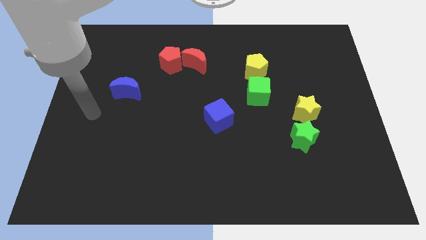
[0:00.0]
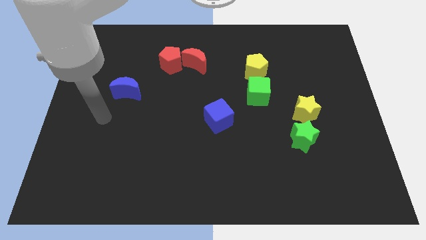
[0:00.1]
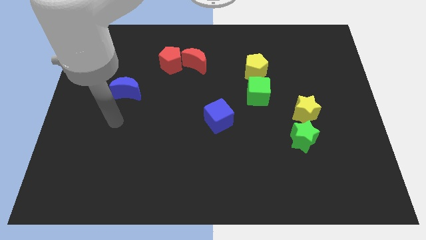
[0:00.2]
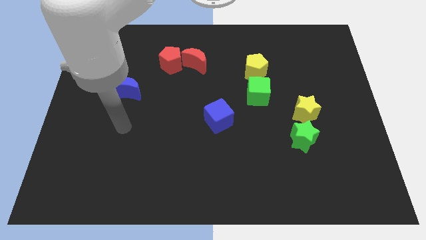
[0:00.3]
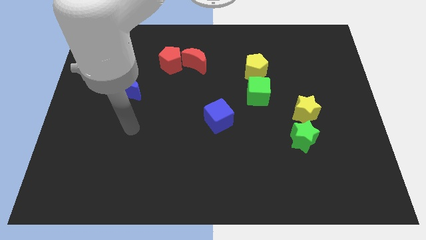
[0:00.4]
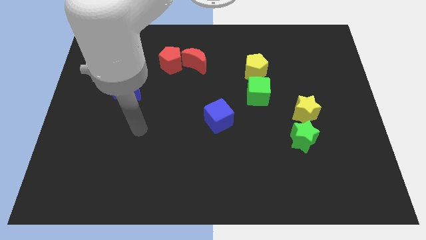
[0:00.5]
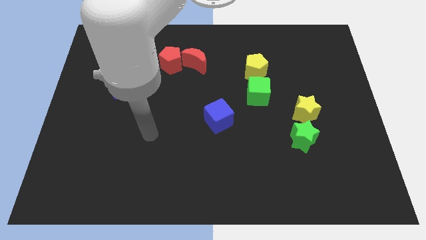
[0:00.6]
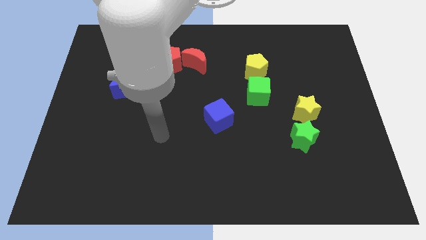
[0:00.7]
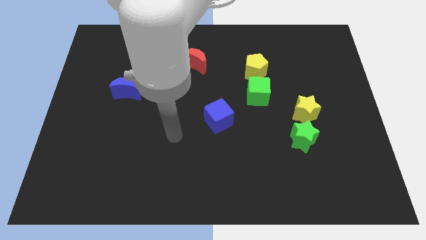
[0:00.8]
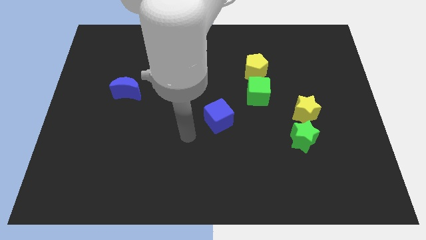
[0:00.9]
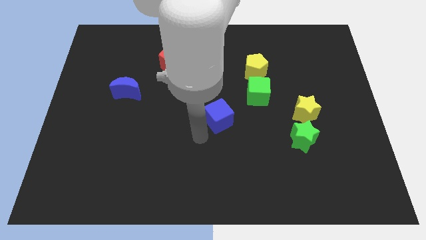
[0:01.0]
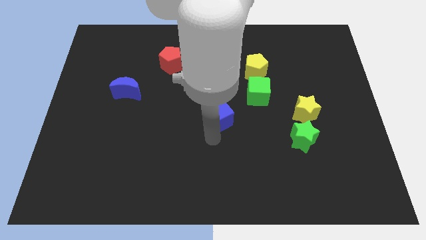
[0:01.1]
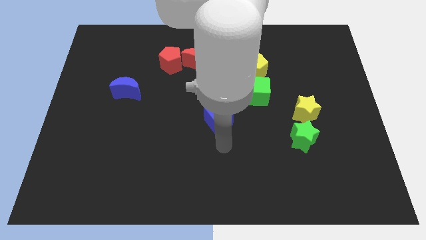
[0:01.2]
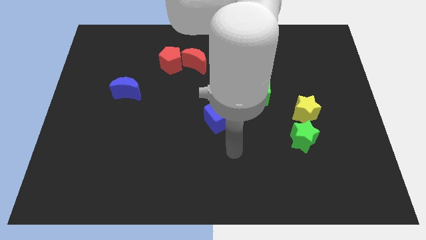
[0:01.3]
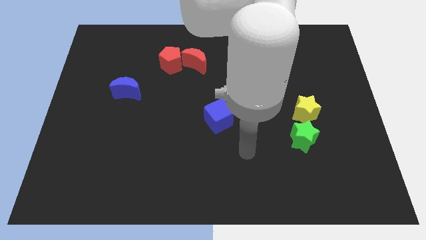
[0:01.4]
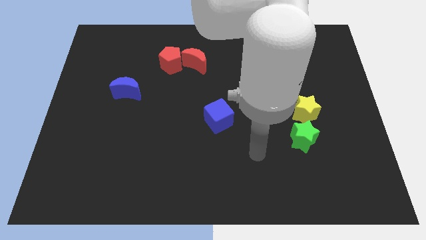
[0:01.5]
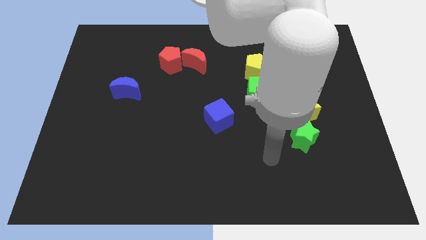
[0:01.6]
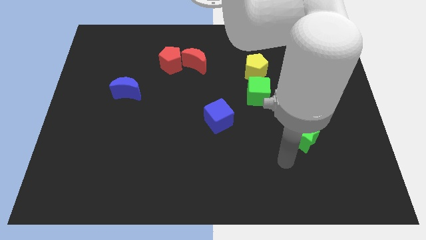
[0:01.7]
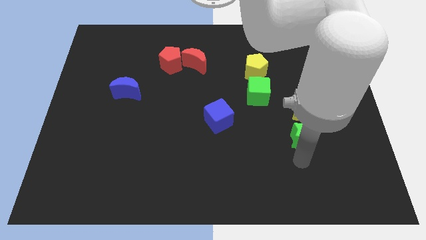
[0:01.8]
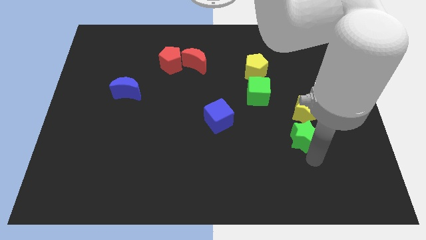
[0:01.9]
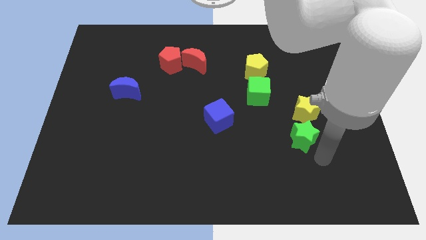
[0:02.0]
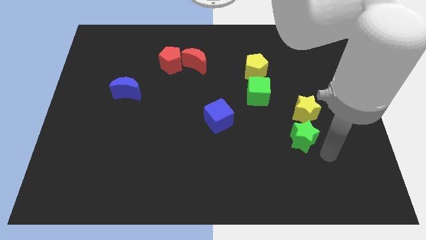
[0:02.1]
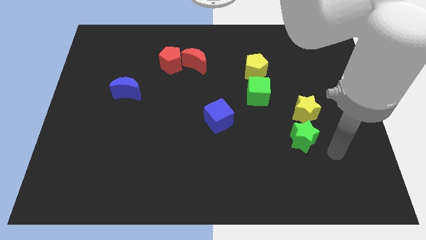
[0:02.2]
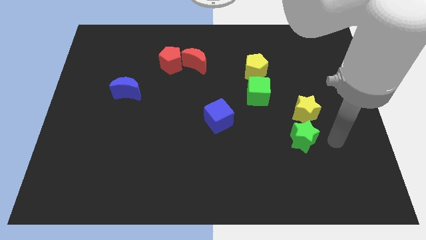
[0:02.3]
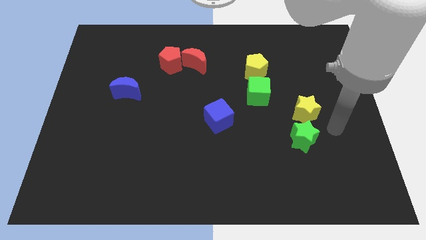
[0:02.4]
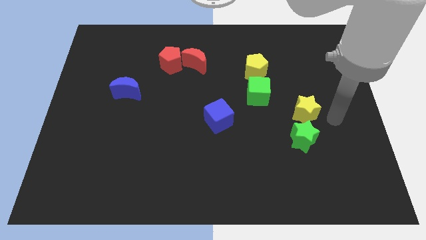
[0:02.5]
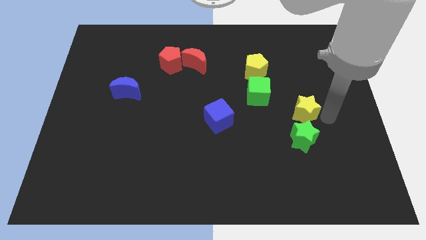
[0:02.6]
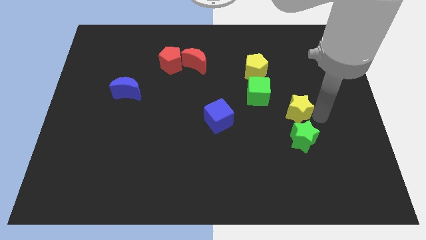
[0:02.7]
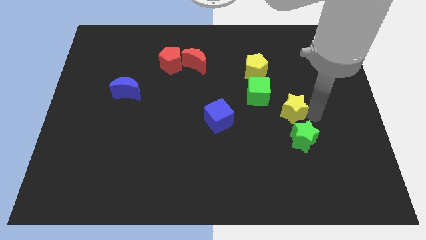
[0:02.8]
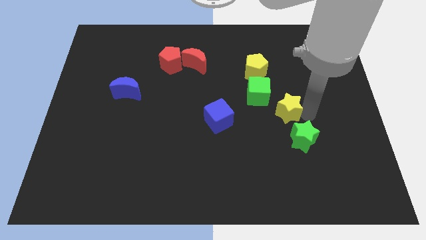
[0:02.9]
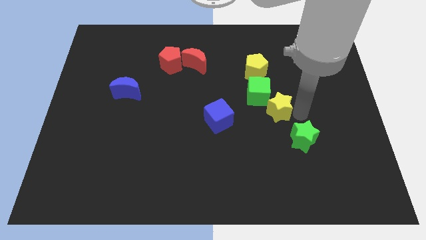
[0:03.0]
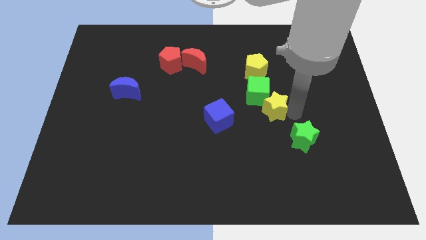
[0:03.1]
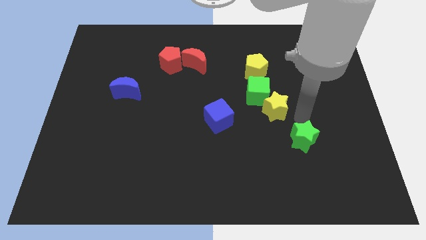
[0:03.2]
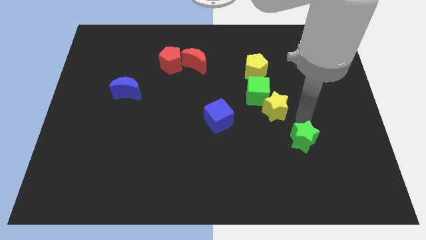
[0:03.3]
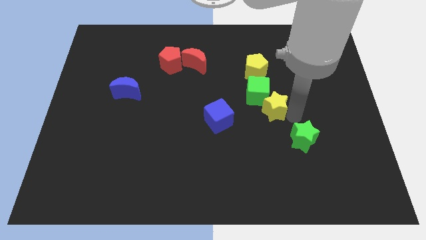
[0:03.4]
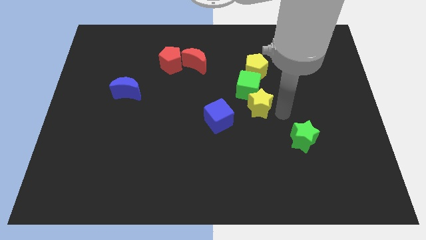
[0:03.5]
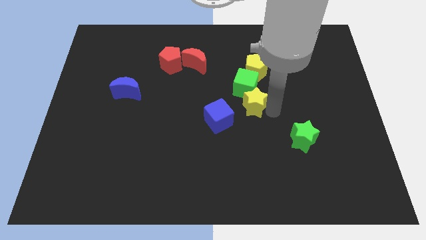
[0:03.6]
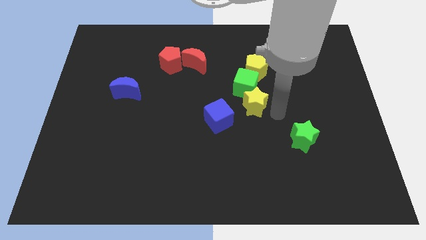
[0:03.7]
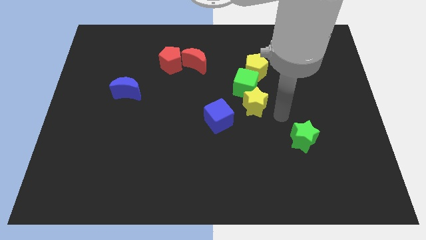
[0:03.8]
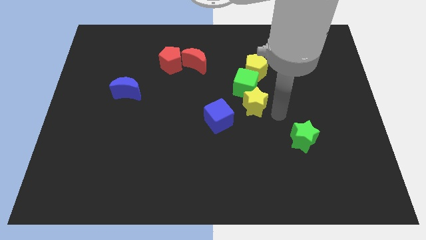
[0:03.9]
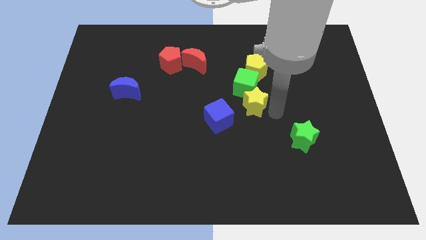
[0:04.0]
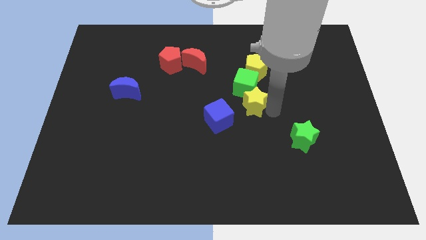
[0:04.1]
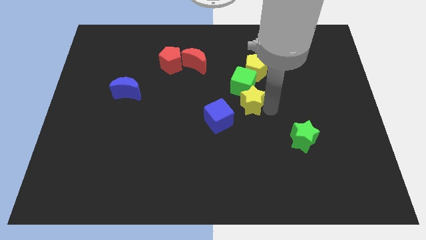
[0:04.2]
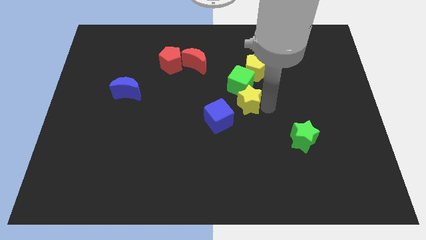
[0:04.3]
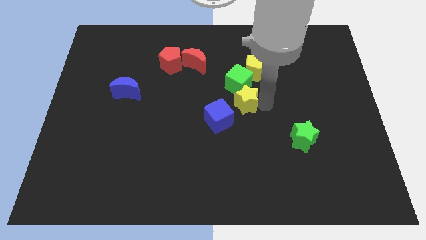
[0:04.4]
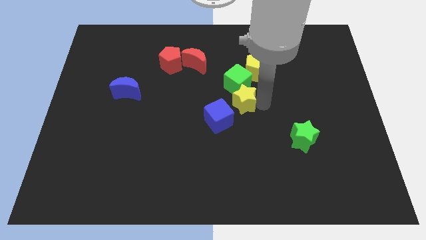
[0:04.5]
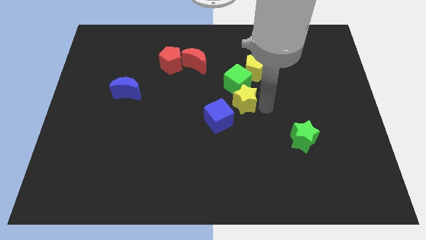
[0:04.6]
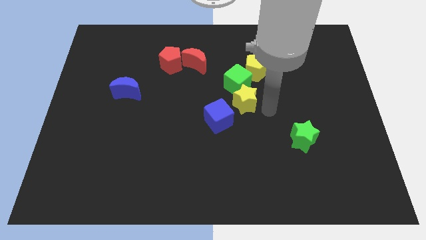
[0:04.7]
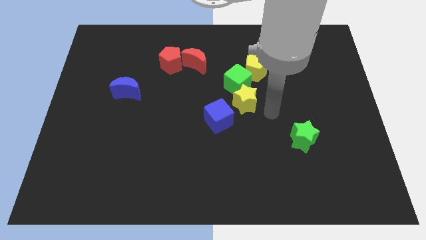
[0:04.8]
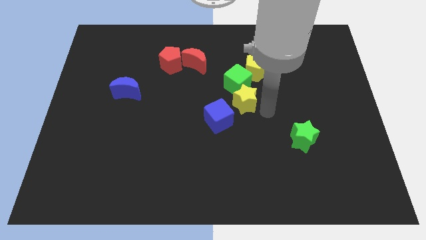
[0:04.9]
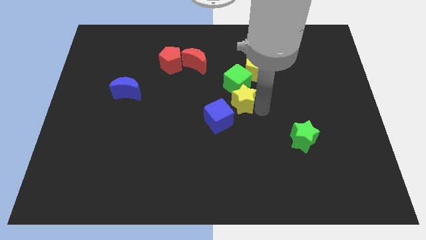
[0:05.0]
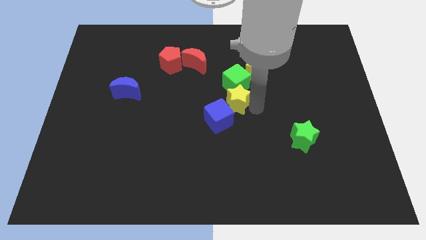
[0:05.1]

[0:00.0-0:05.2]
move the yellow star to the top of the blue cube

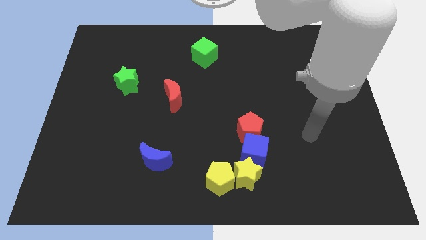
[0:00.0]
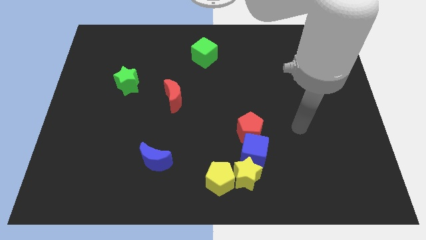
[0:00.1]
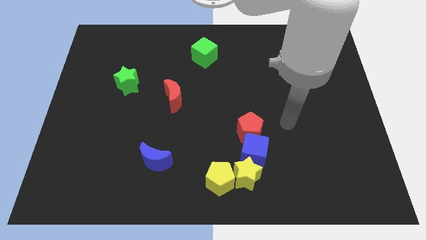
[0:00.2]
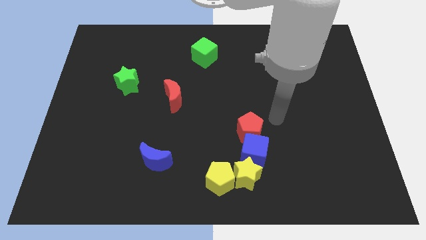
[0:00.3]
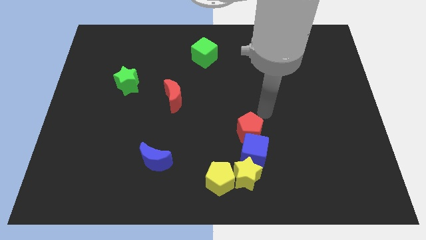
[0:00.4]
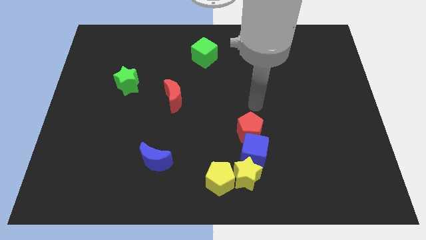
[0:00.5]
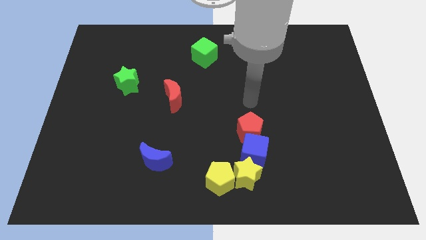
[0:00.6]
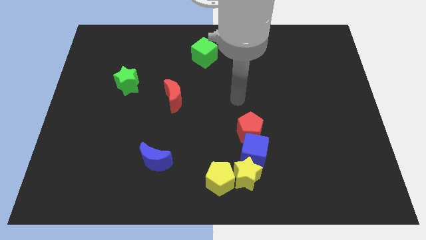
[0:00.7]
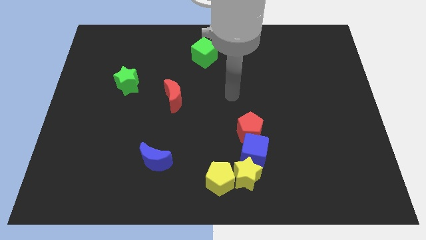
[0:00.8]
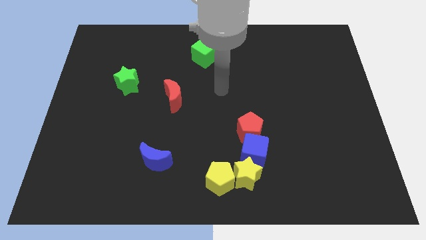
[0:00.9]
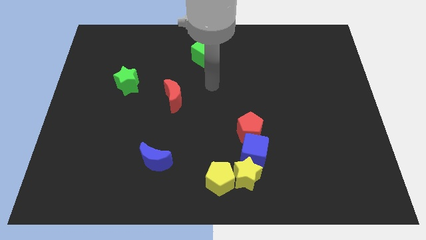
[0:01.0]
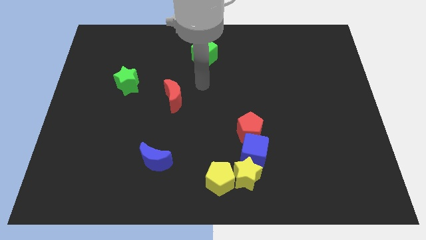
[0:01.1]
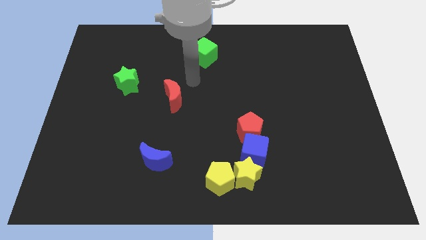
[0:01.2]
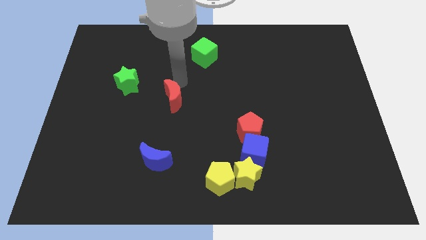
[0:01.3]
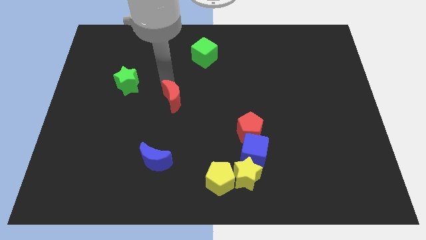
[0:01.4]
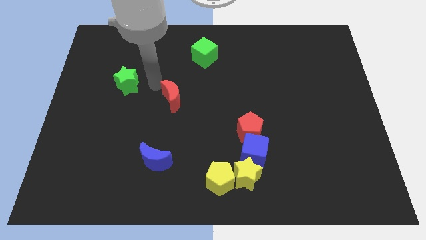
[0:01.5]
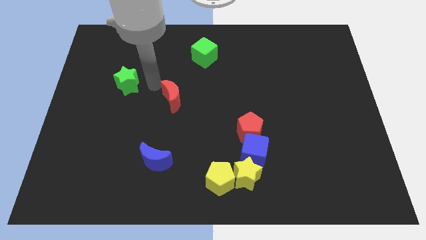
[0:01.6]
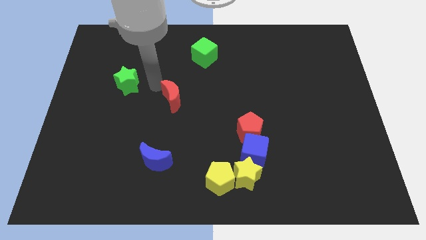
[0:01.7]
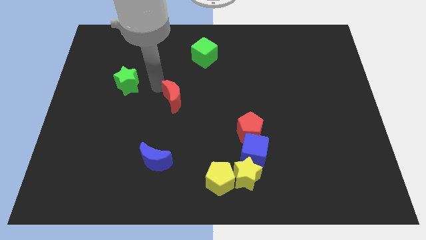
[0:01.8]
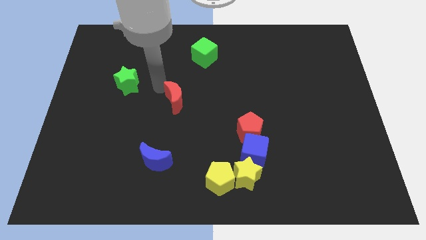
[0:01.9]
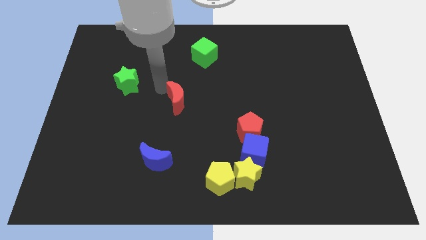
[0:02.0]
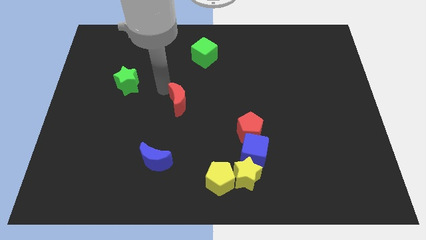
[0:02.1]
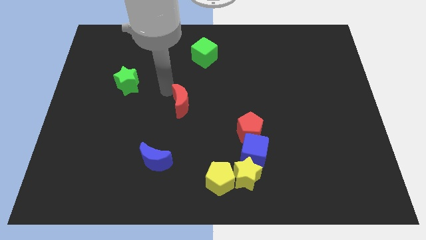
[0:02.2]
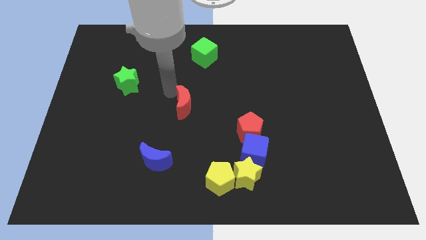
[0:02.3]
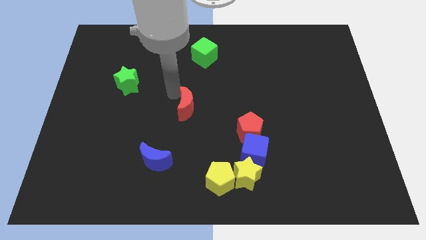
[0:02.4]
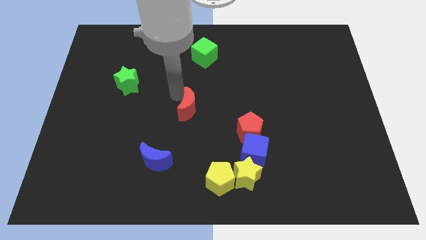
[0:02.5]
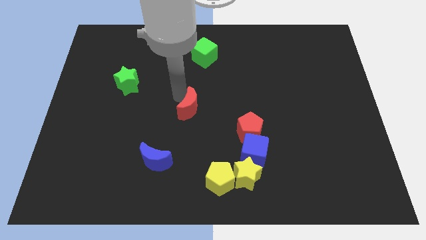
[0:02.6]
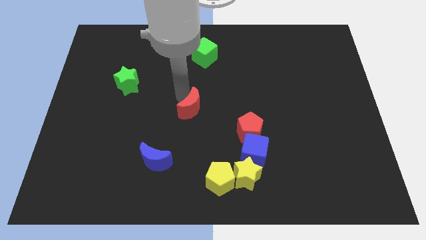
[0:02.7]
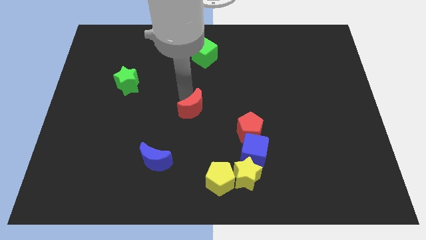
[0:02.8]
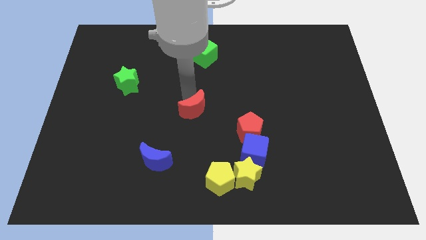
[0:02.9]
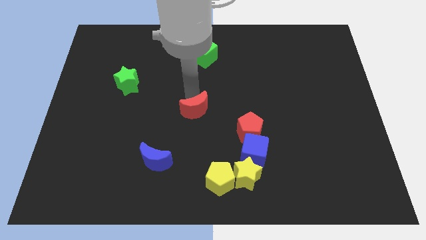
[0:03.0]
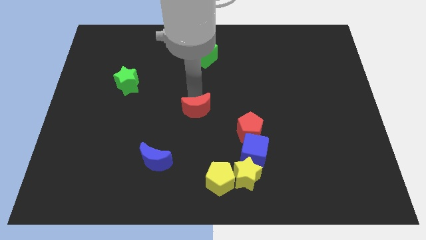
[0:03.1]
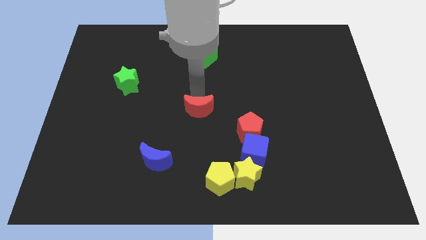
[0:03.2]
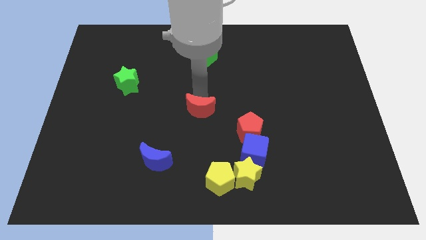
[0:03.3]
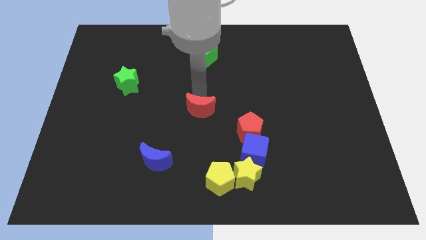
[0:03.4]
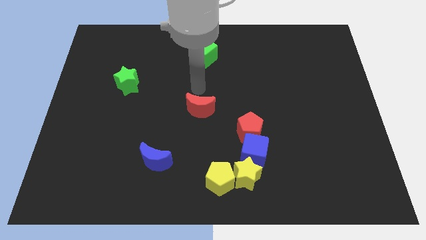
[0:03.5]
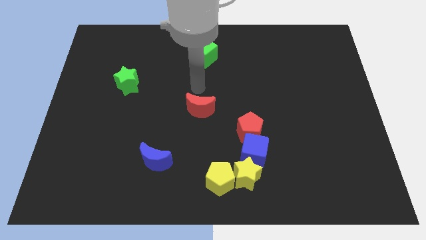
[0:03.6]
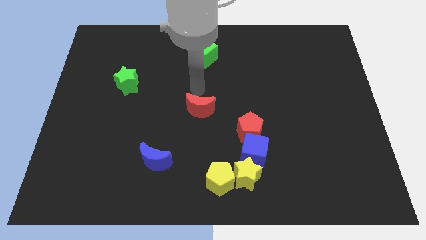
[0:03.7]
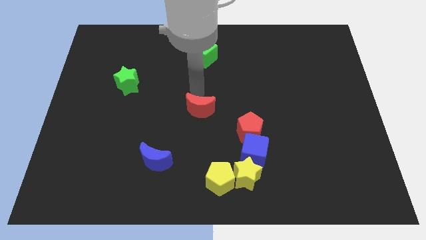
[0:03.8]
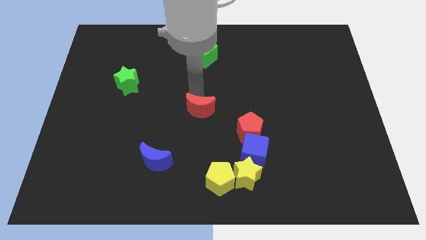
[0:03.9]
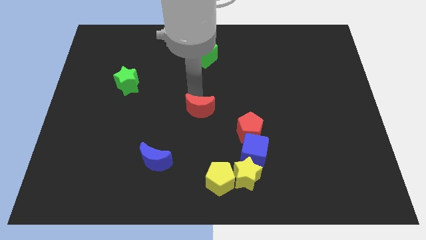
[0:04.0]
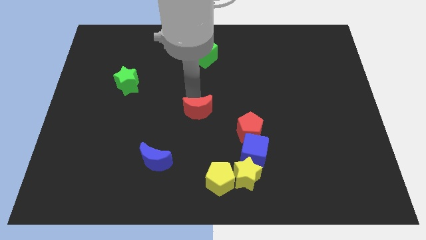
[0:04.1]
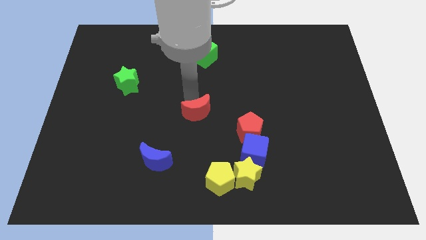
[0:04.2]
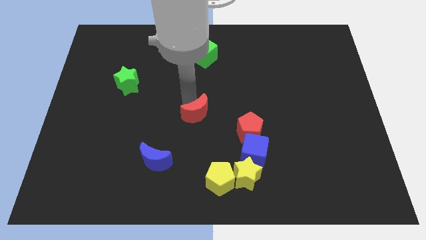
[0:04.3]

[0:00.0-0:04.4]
push the red moon to the left side of the red pentagon
